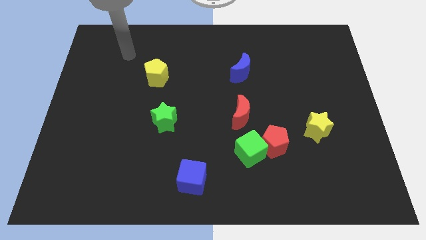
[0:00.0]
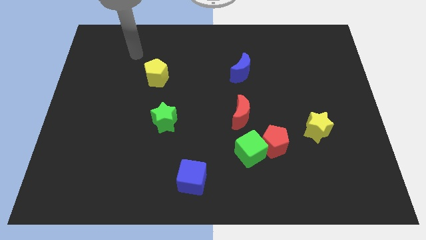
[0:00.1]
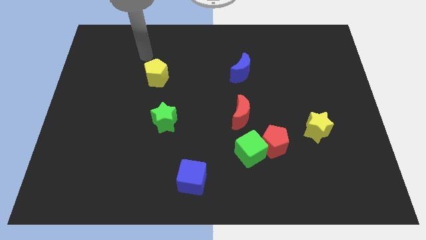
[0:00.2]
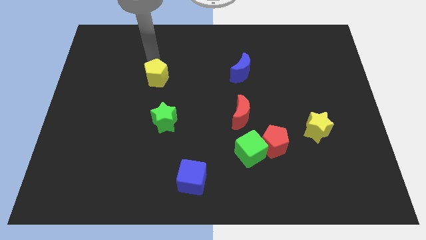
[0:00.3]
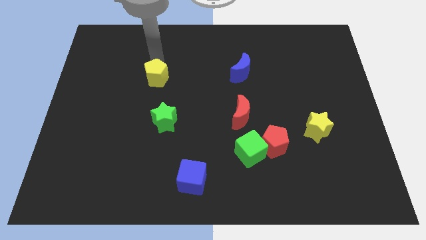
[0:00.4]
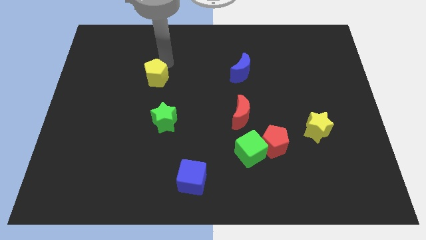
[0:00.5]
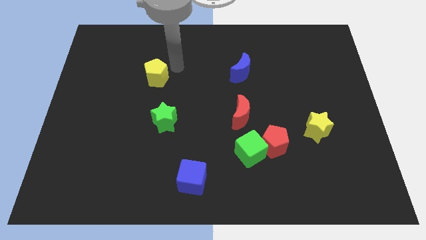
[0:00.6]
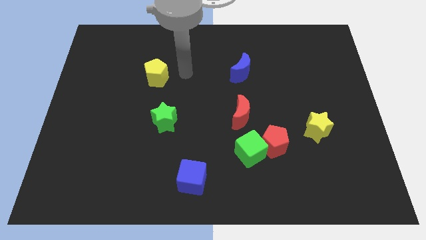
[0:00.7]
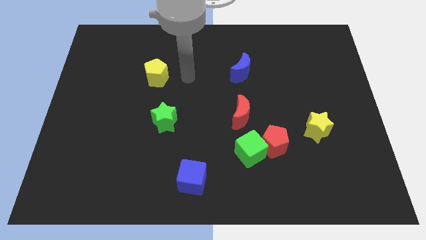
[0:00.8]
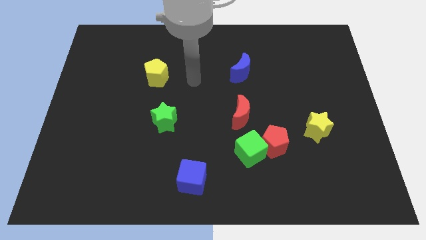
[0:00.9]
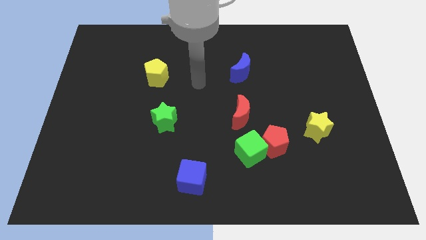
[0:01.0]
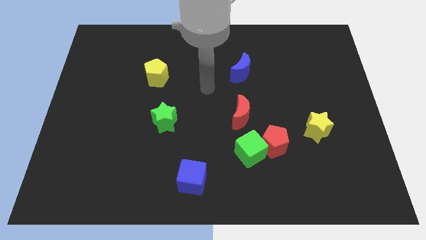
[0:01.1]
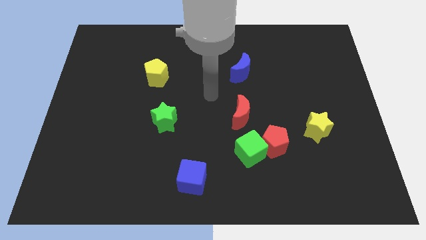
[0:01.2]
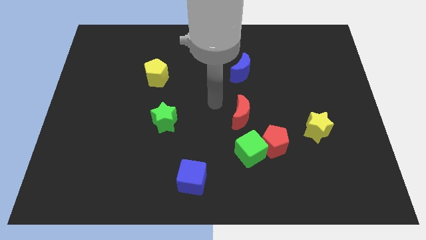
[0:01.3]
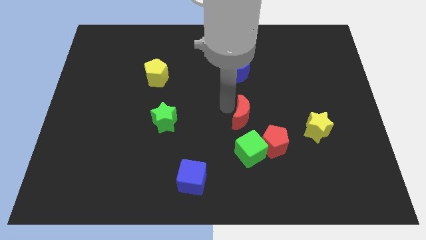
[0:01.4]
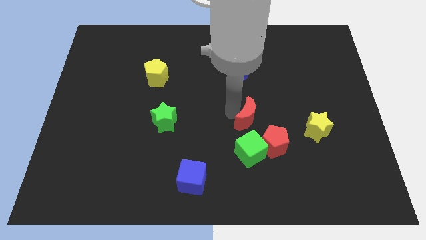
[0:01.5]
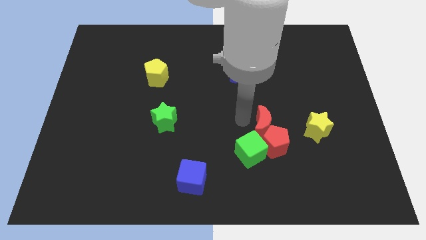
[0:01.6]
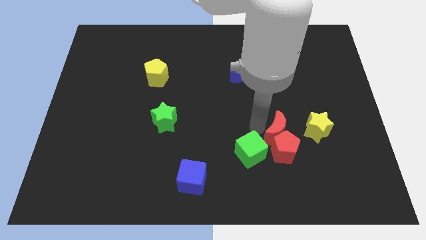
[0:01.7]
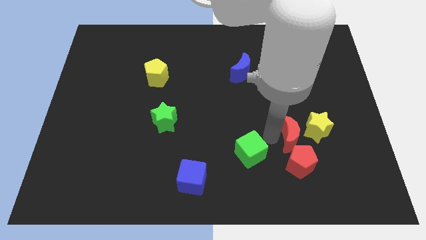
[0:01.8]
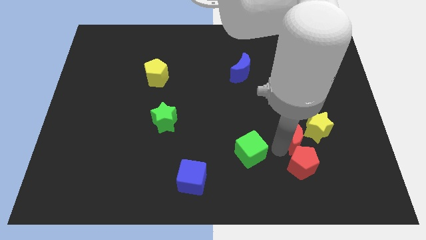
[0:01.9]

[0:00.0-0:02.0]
separate the green cube from the red pentagon and red moon

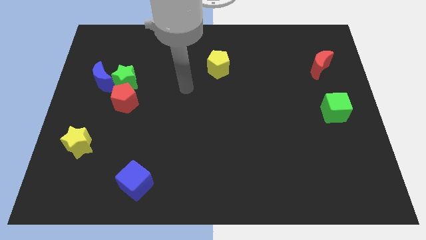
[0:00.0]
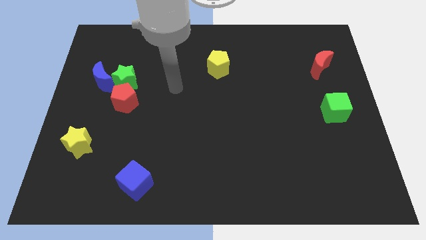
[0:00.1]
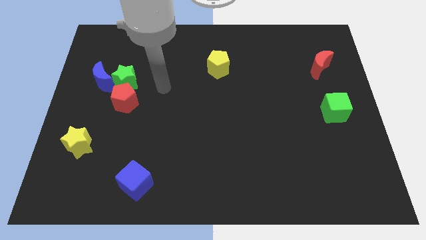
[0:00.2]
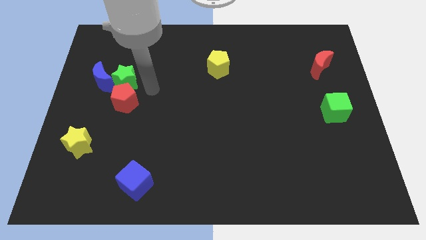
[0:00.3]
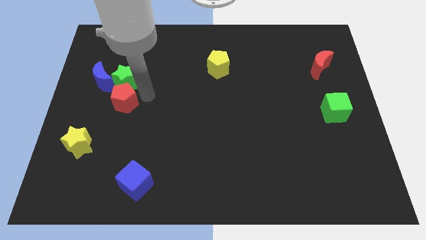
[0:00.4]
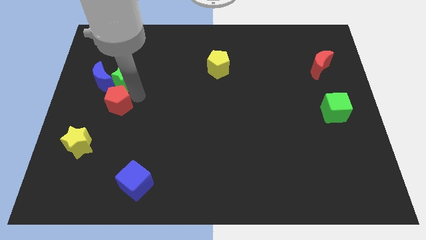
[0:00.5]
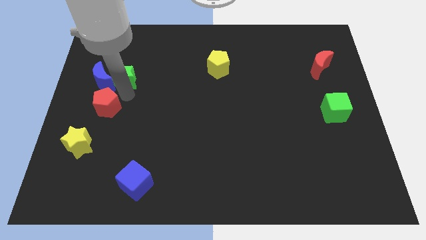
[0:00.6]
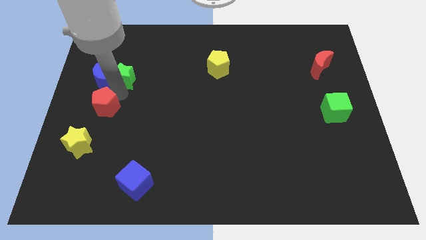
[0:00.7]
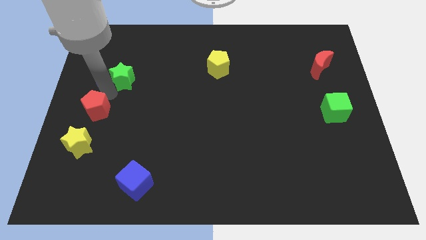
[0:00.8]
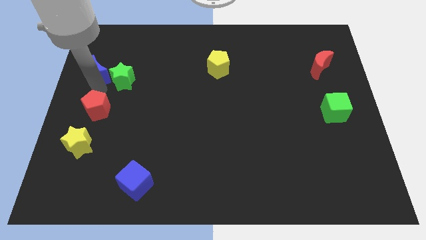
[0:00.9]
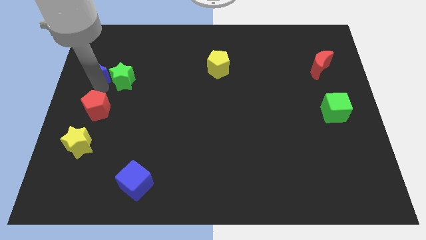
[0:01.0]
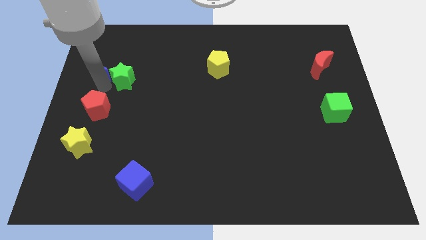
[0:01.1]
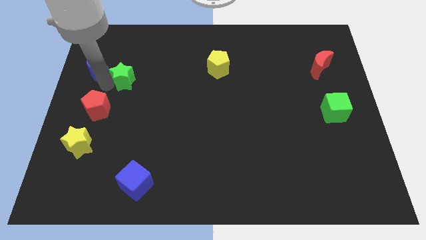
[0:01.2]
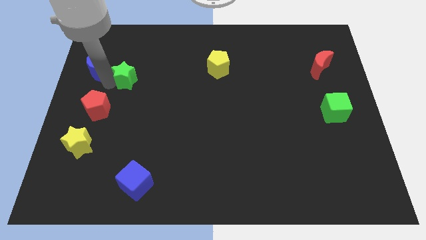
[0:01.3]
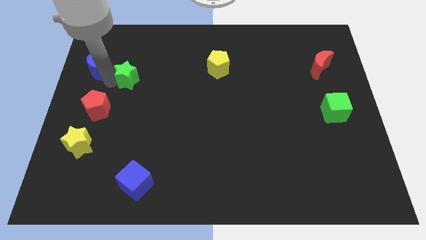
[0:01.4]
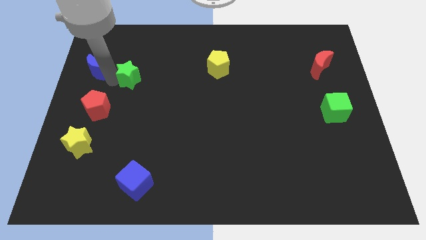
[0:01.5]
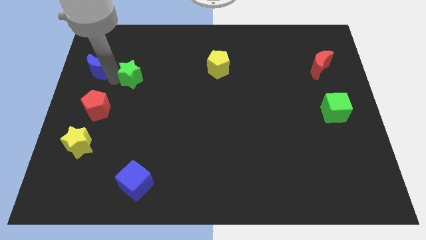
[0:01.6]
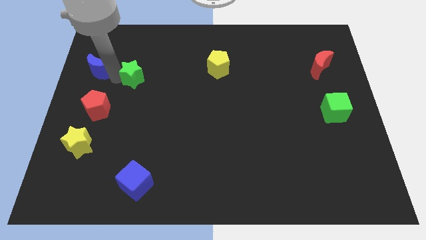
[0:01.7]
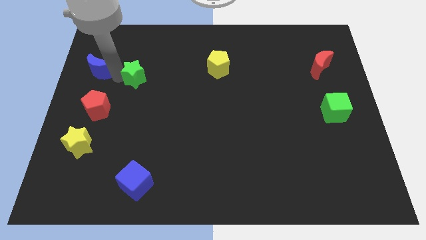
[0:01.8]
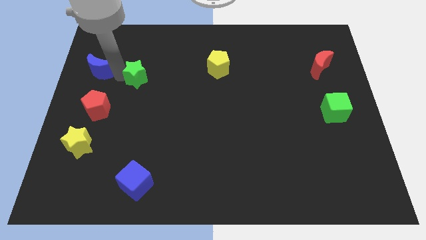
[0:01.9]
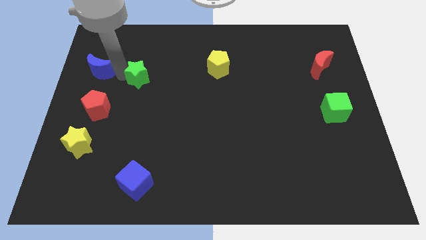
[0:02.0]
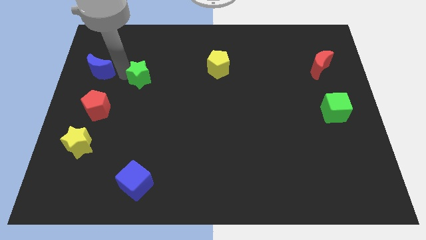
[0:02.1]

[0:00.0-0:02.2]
separate the green star from the blue moon and red pentagon

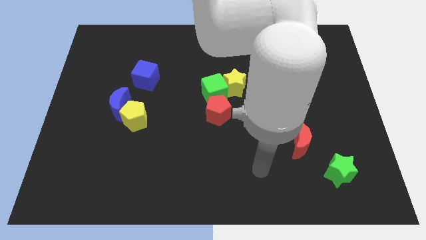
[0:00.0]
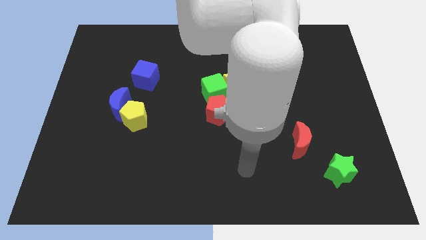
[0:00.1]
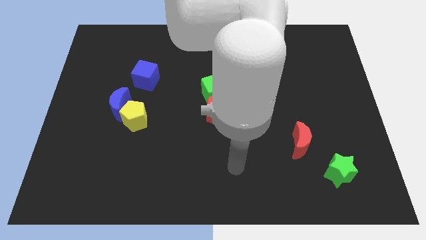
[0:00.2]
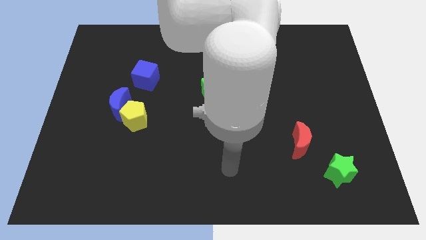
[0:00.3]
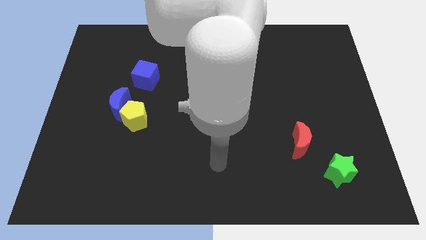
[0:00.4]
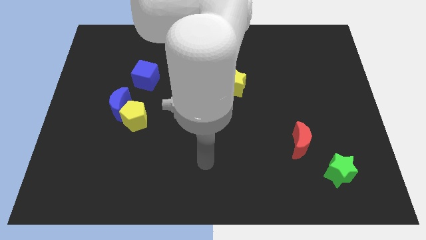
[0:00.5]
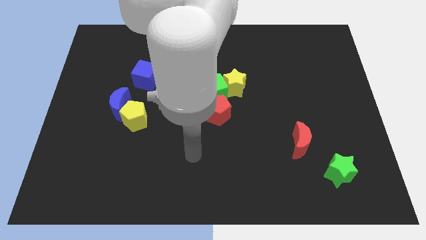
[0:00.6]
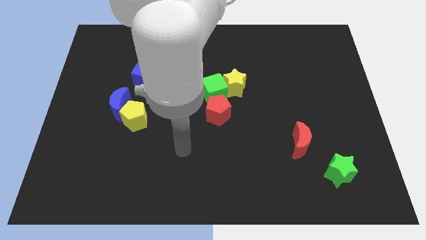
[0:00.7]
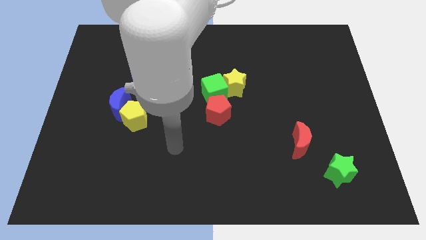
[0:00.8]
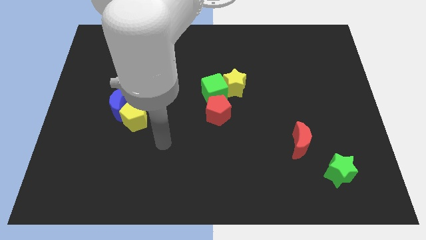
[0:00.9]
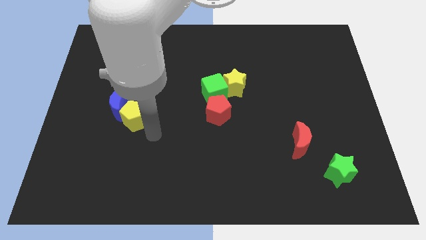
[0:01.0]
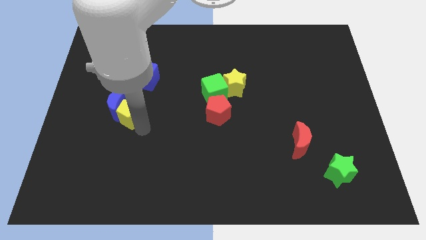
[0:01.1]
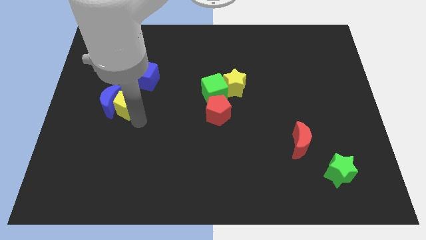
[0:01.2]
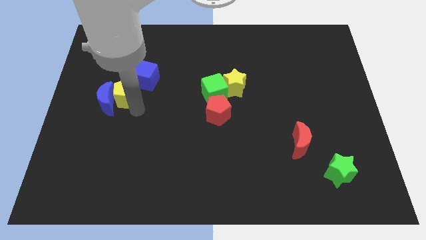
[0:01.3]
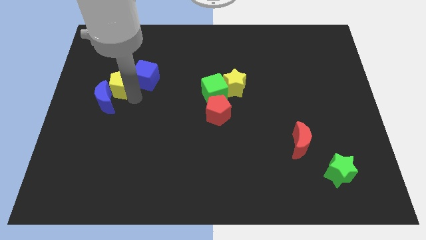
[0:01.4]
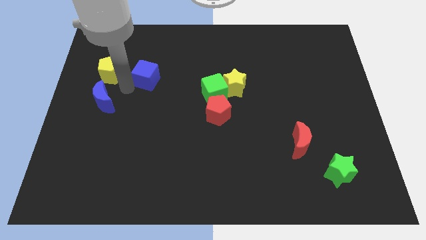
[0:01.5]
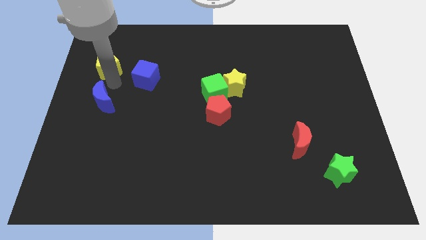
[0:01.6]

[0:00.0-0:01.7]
separate the blue moon from the yellow pentagon

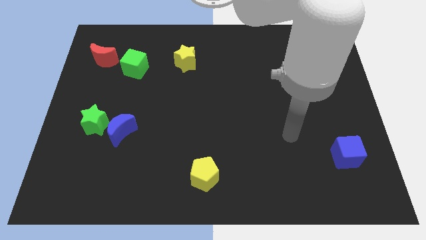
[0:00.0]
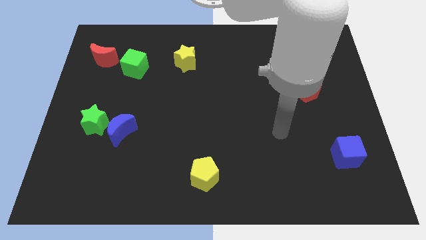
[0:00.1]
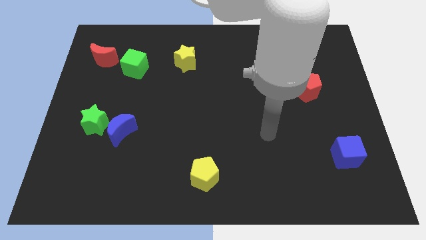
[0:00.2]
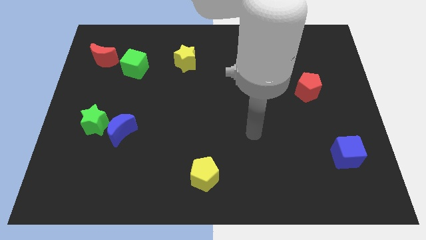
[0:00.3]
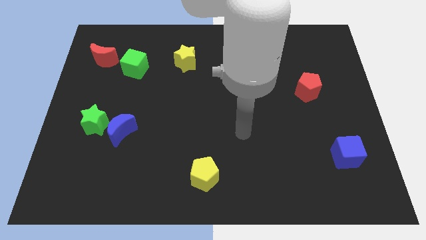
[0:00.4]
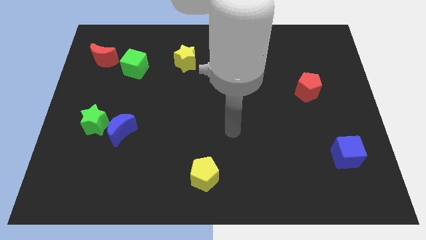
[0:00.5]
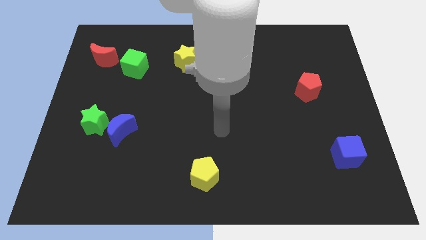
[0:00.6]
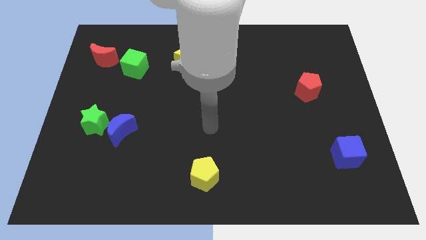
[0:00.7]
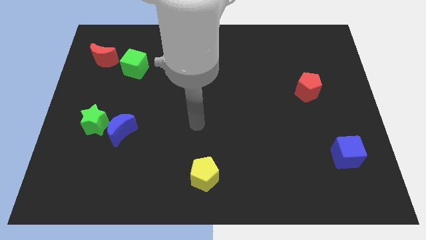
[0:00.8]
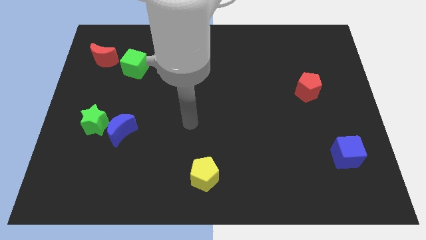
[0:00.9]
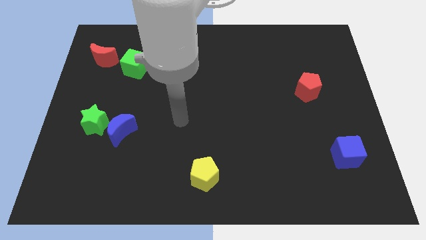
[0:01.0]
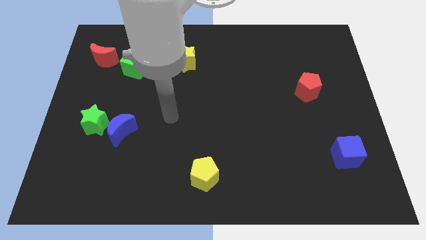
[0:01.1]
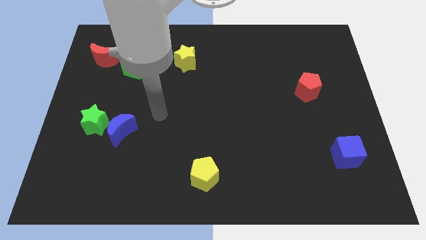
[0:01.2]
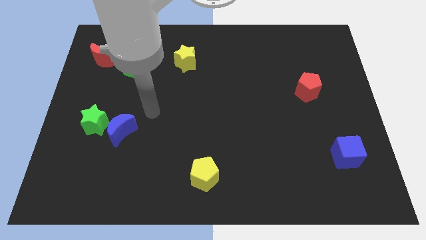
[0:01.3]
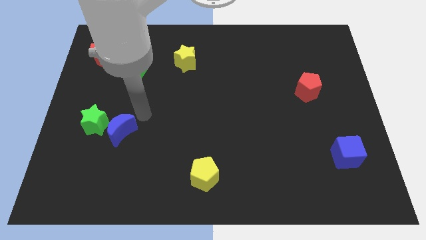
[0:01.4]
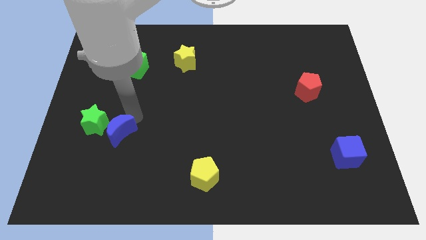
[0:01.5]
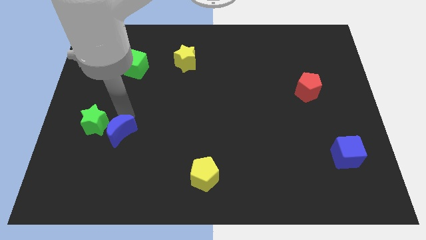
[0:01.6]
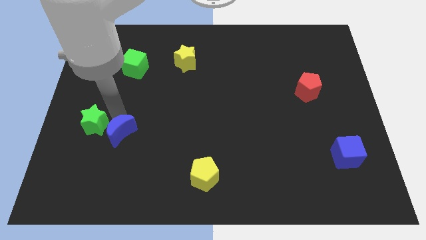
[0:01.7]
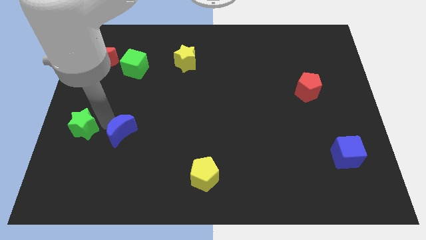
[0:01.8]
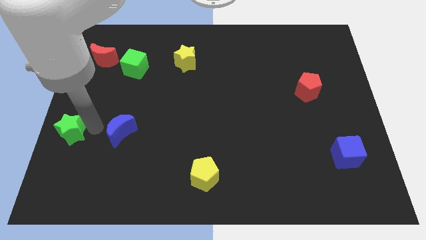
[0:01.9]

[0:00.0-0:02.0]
move the blue moon away from the green star

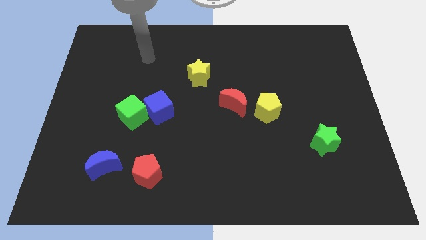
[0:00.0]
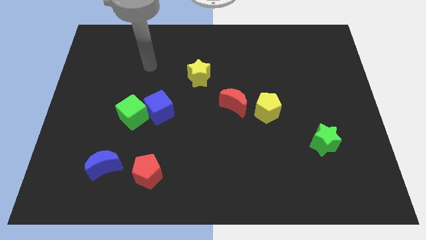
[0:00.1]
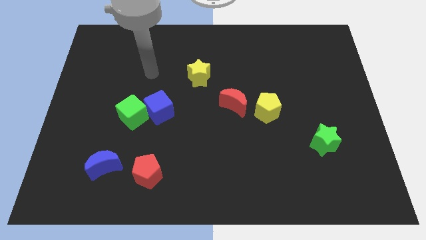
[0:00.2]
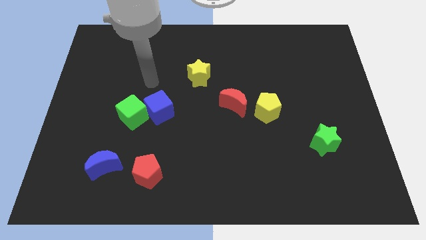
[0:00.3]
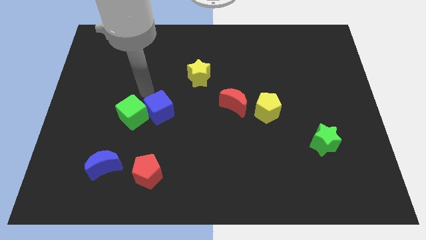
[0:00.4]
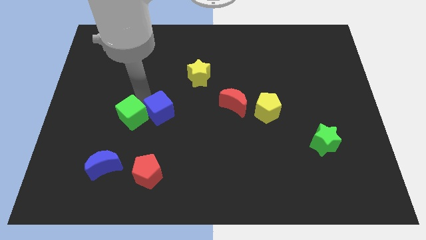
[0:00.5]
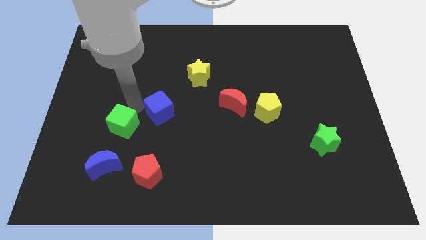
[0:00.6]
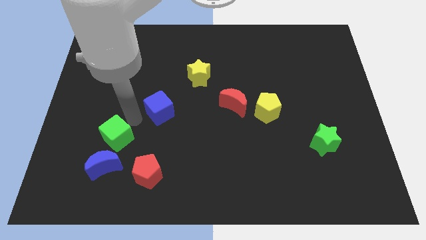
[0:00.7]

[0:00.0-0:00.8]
separate the blue cube from the green cube

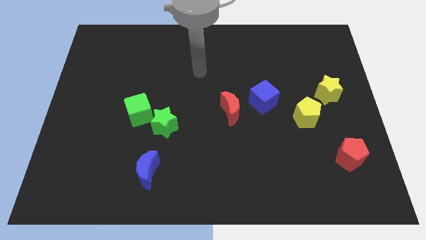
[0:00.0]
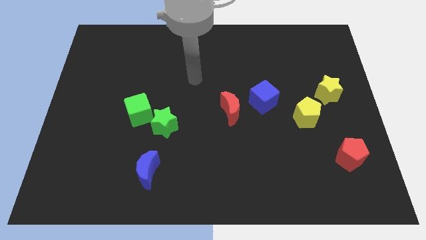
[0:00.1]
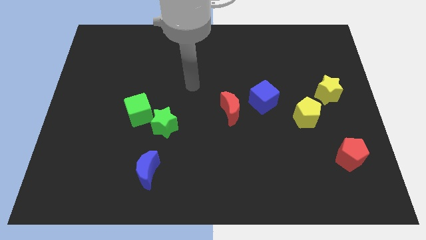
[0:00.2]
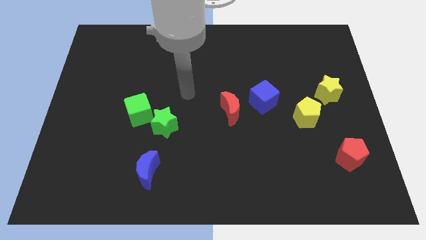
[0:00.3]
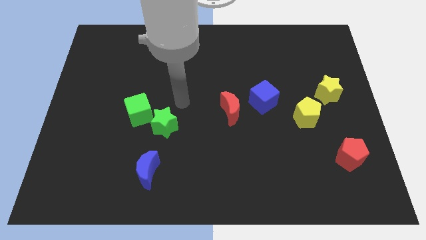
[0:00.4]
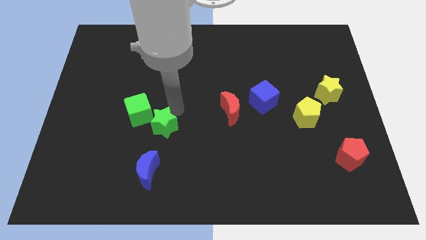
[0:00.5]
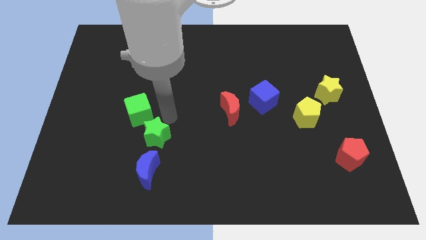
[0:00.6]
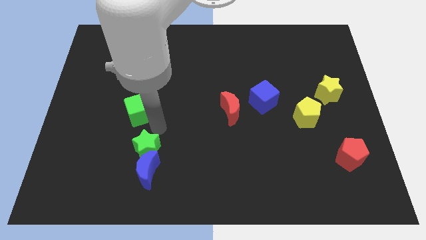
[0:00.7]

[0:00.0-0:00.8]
move the green cube away from the green star
